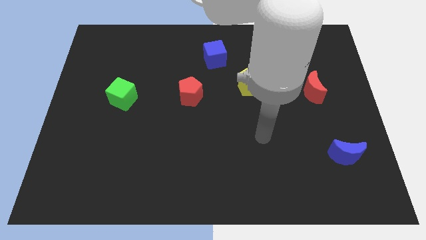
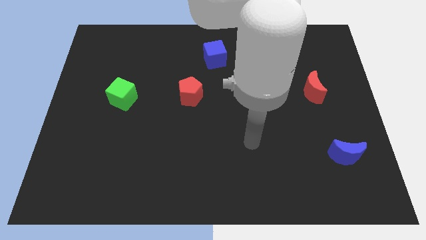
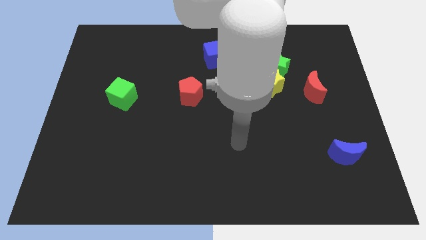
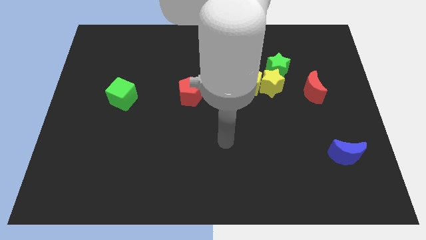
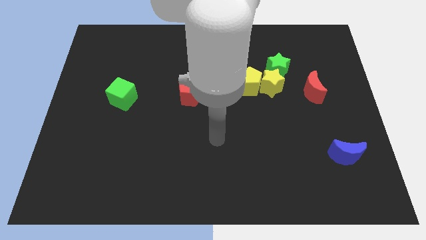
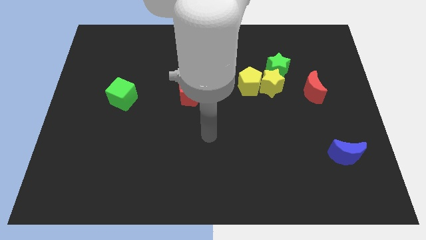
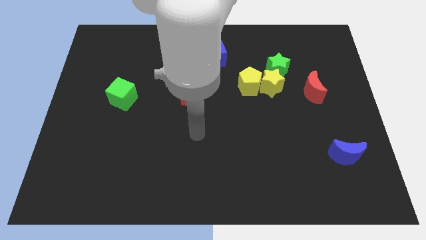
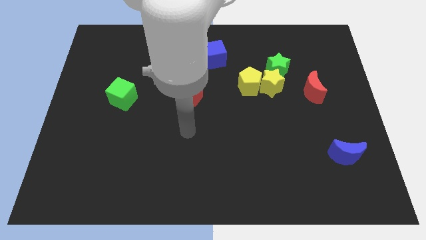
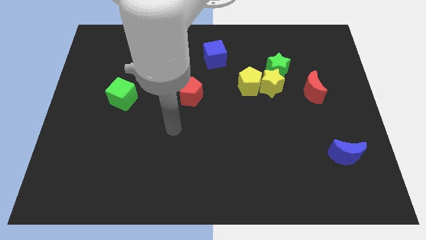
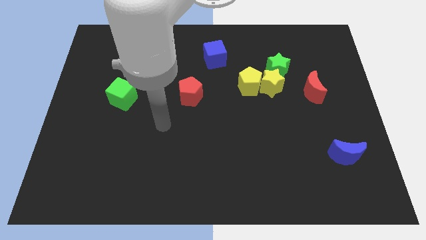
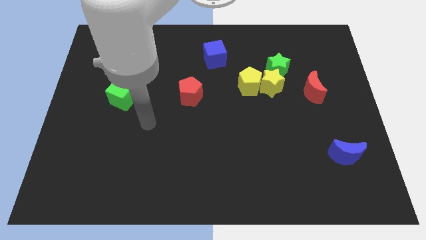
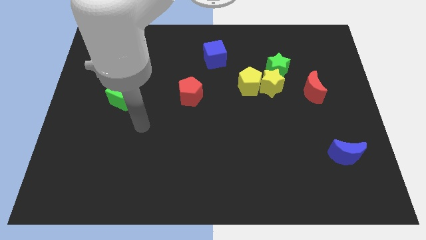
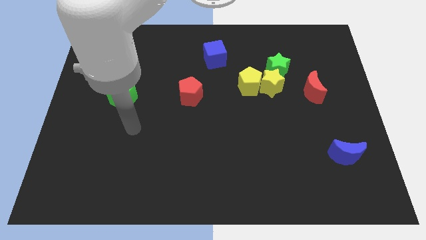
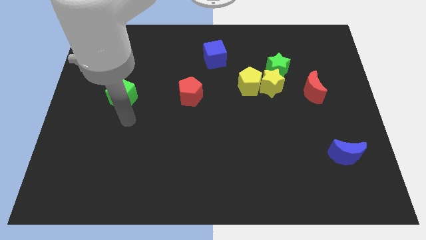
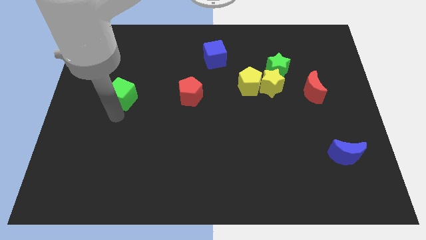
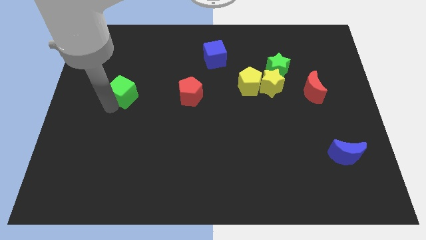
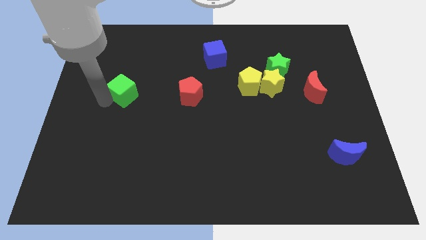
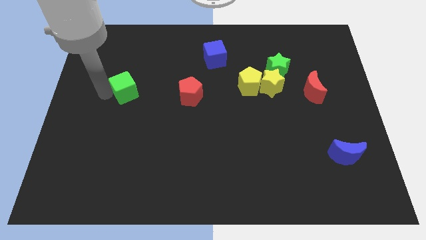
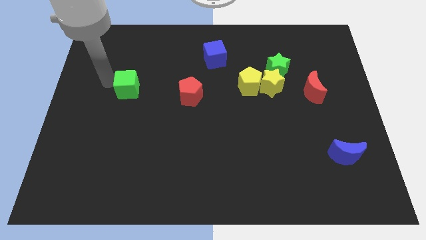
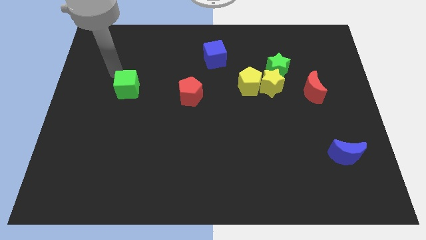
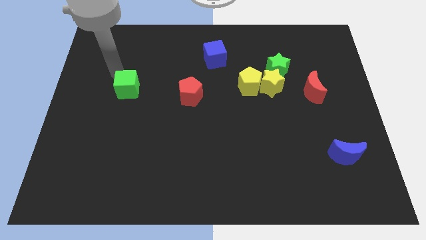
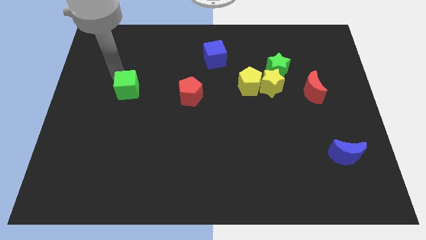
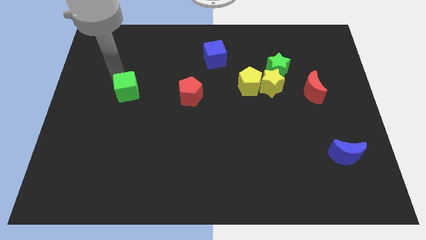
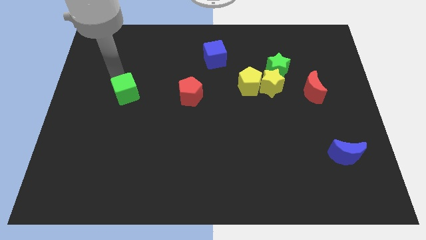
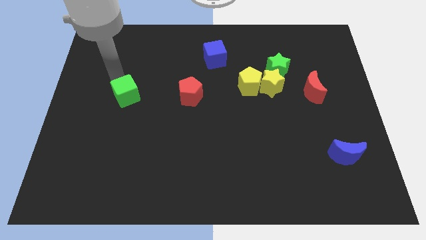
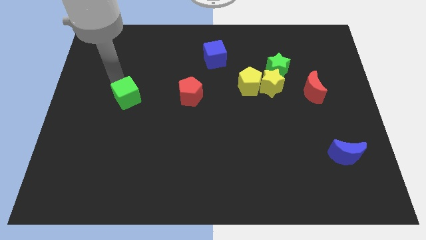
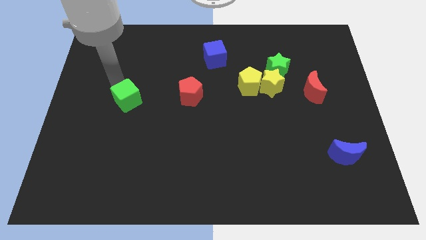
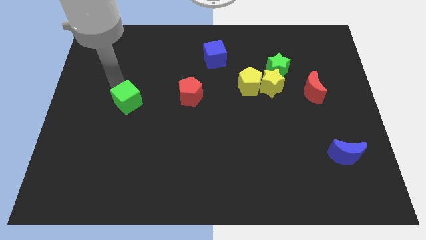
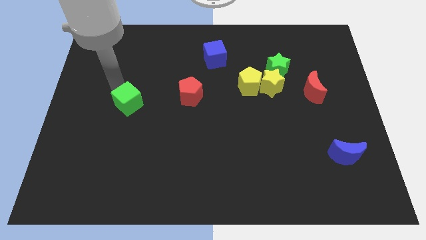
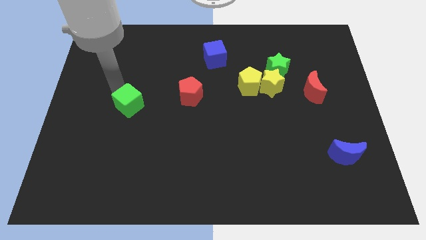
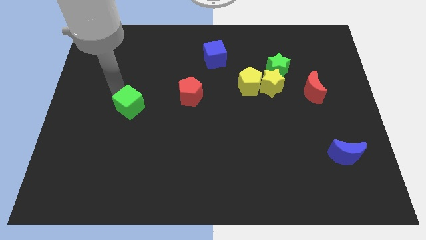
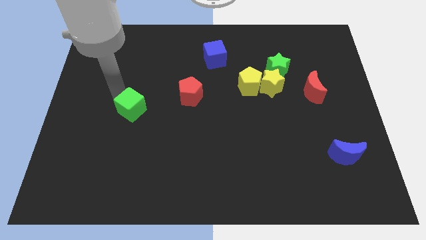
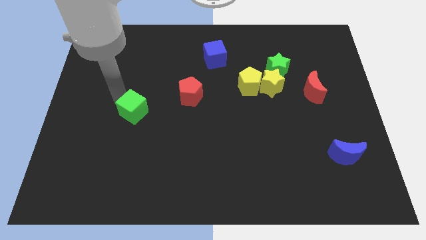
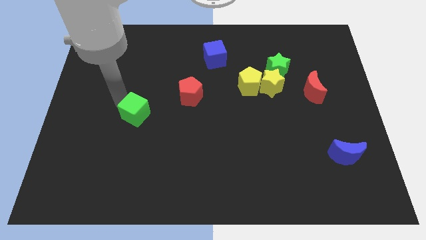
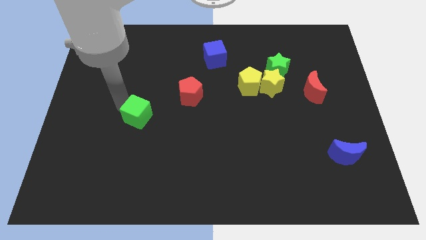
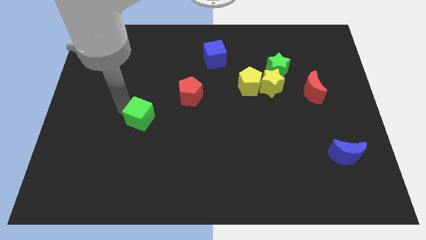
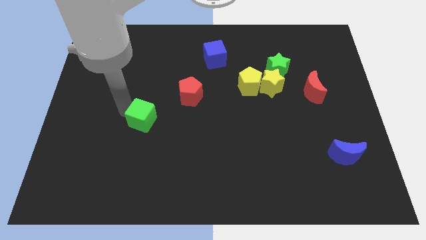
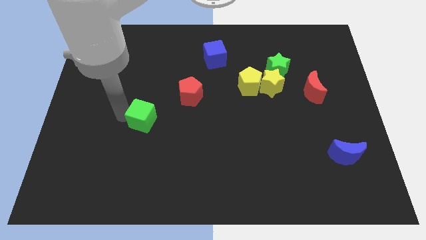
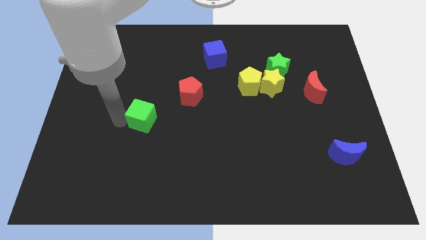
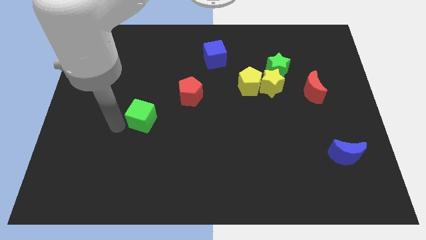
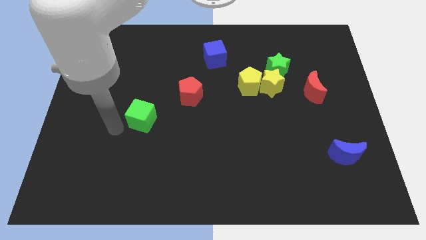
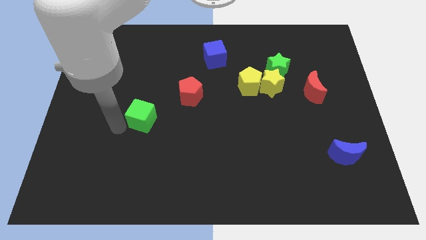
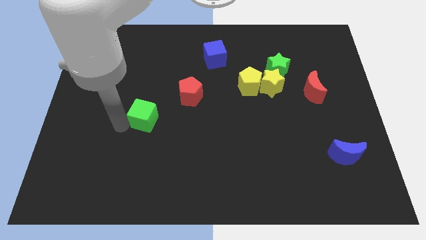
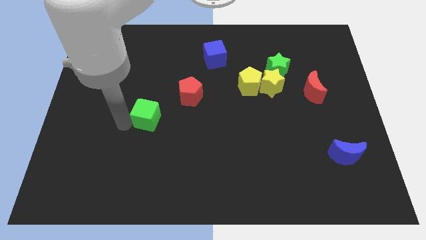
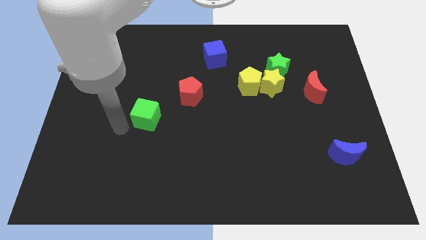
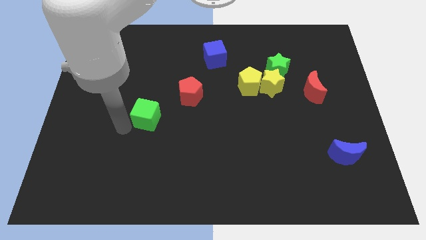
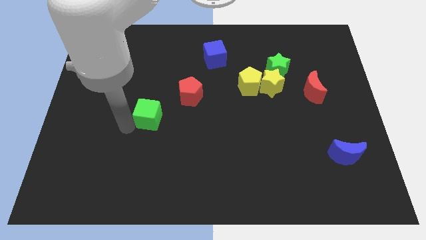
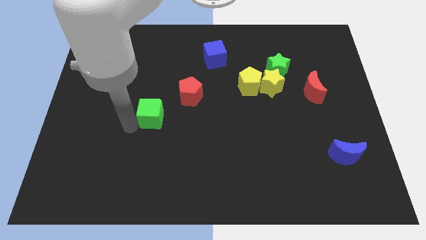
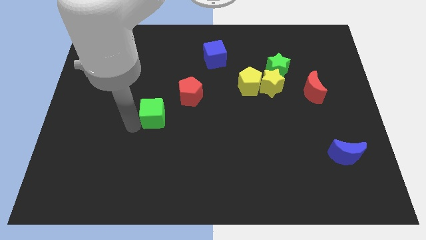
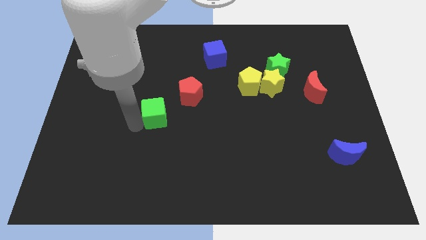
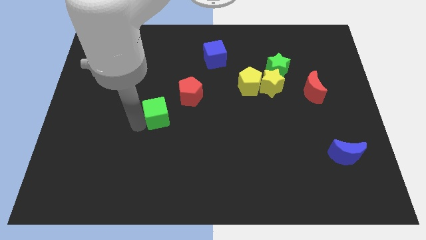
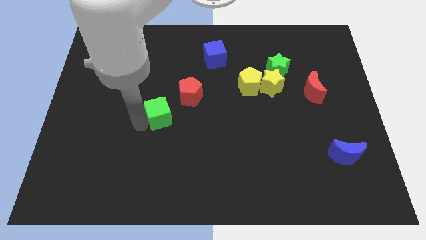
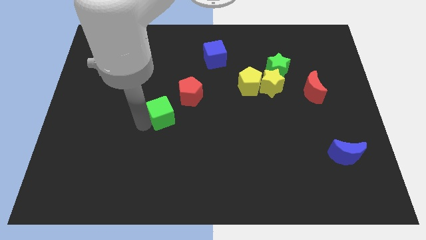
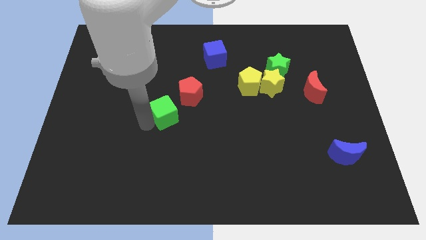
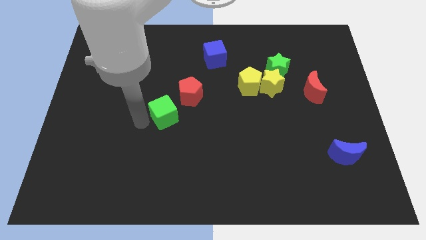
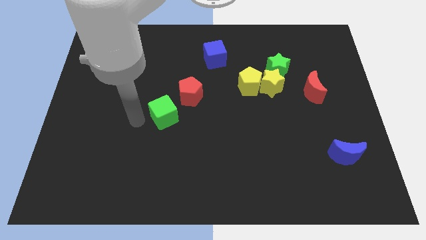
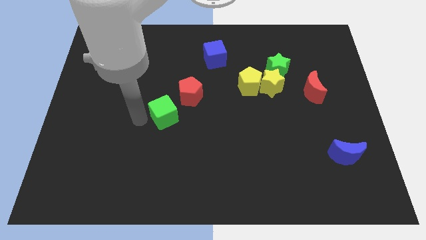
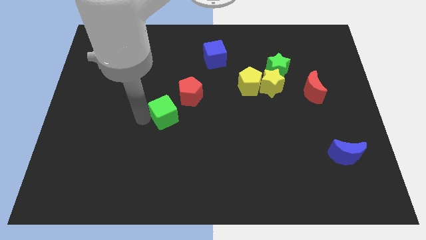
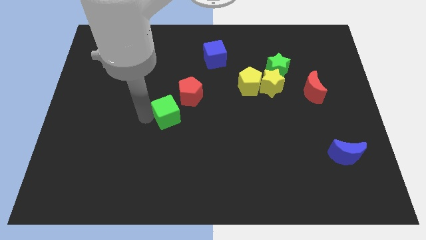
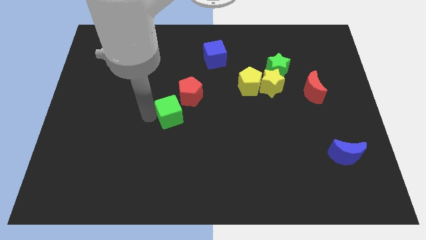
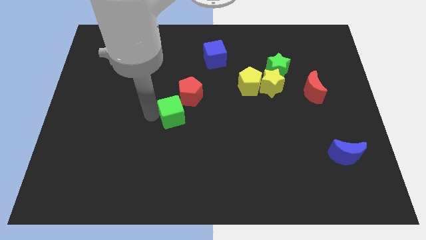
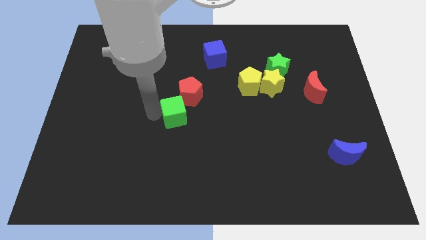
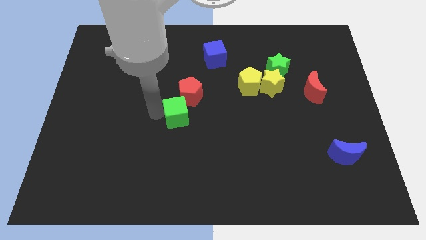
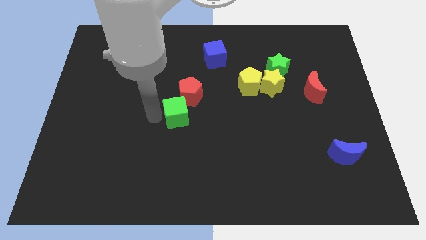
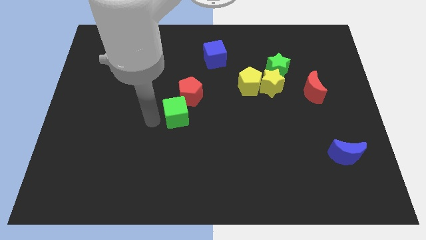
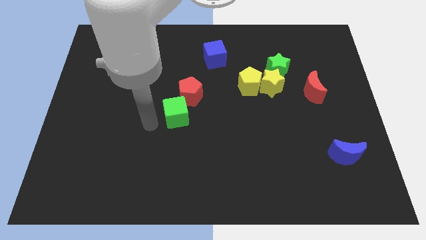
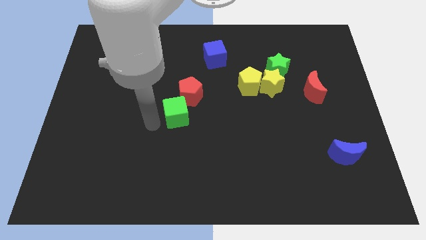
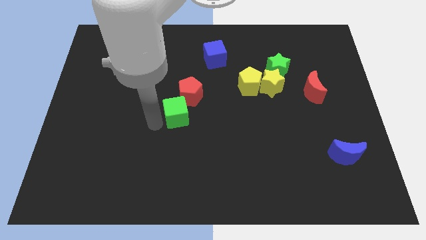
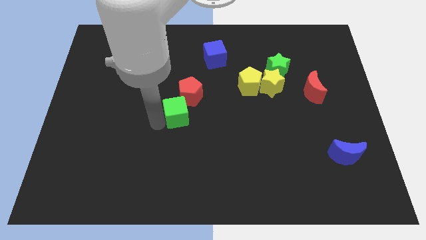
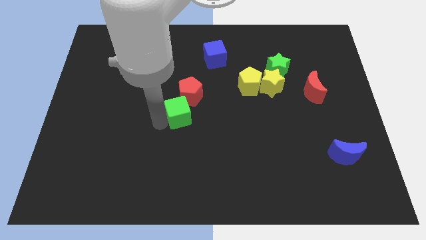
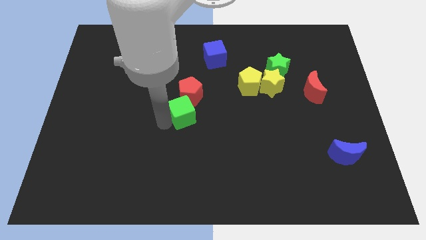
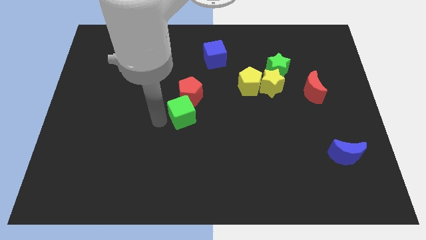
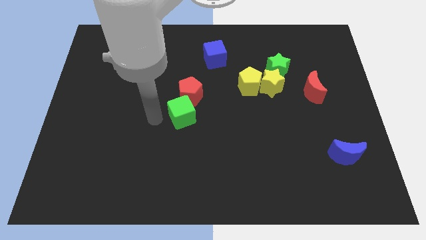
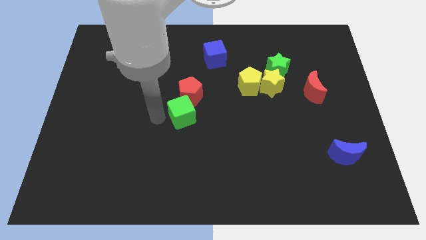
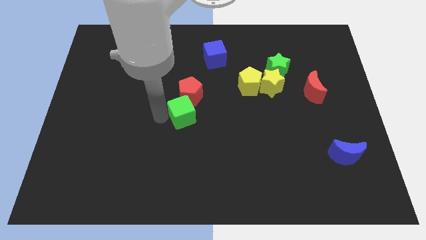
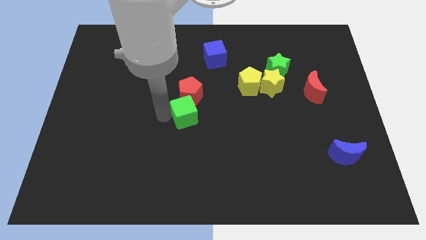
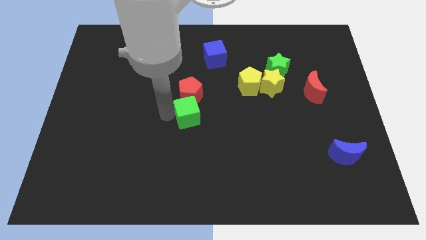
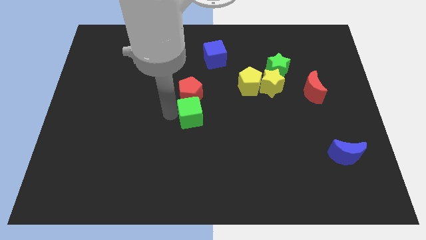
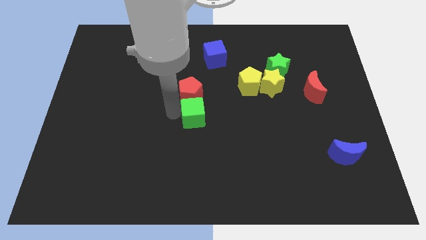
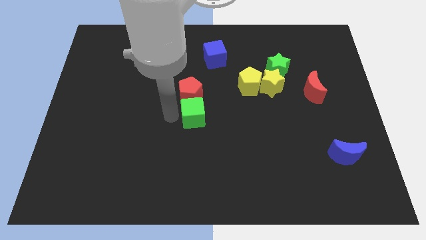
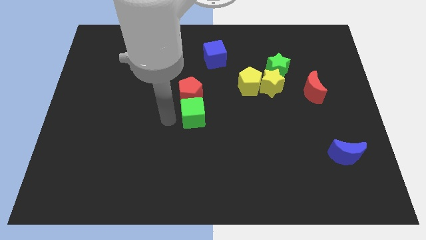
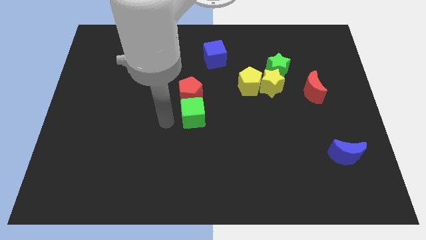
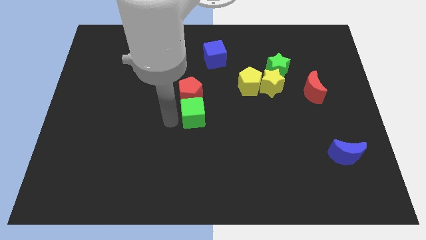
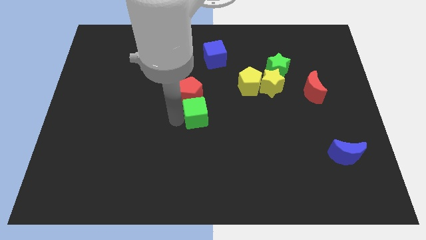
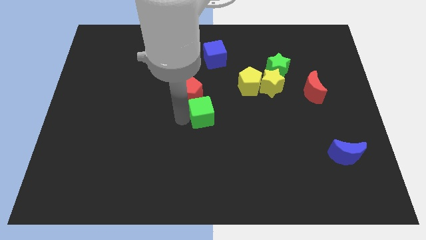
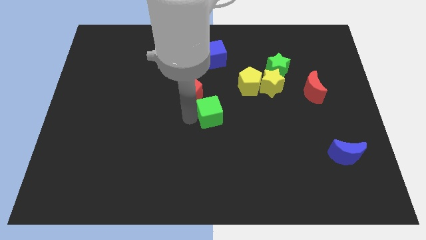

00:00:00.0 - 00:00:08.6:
push the green cube to the right
